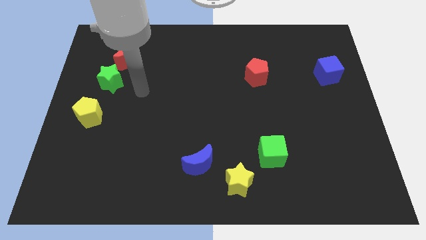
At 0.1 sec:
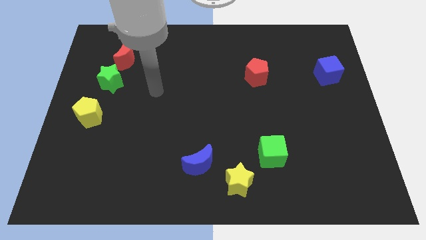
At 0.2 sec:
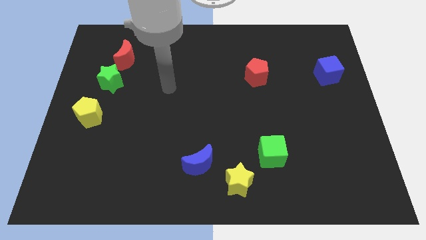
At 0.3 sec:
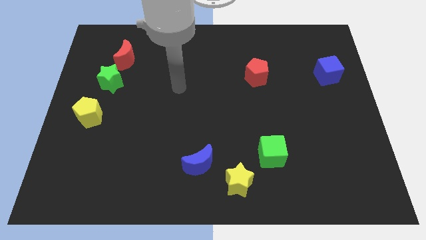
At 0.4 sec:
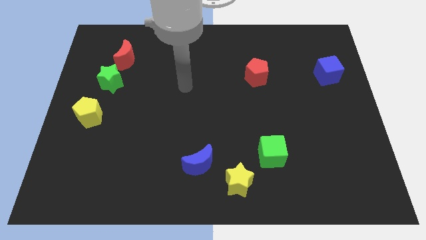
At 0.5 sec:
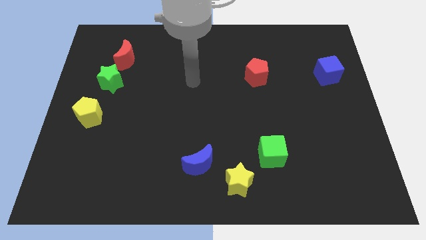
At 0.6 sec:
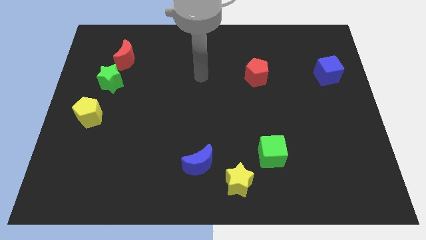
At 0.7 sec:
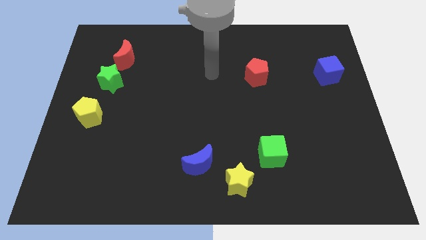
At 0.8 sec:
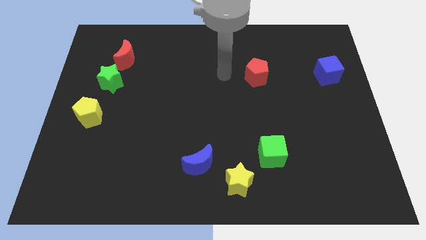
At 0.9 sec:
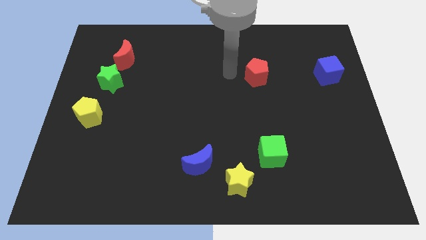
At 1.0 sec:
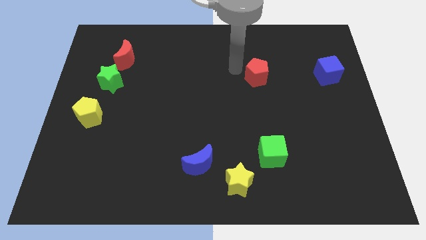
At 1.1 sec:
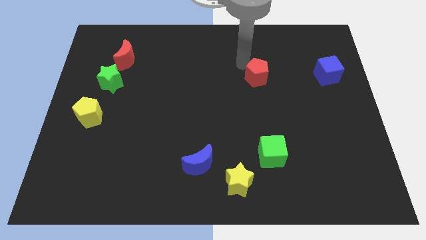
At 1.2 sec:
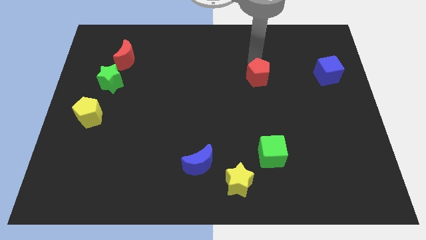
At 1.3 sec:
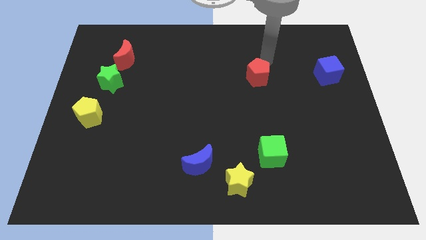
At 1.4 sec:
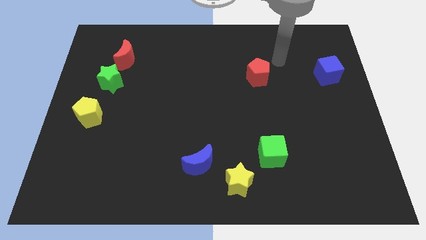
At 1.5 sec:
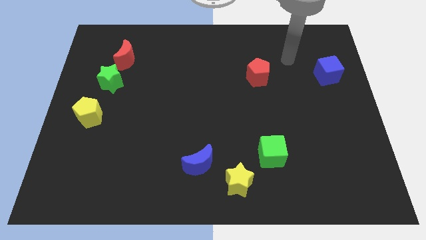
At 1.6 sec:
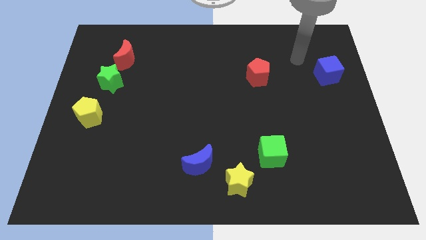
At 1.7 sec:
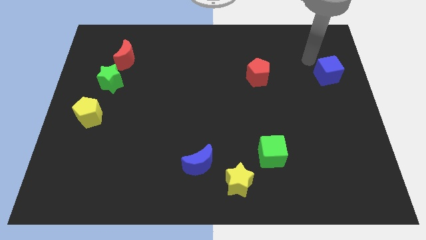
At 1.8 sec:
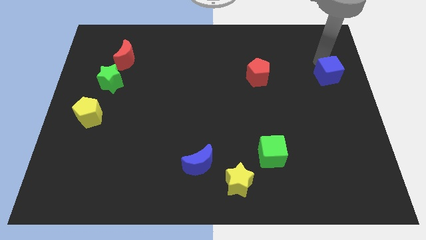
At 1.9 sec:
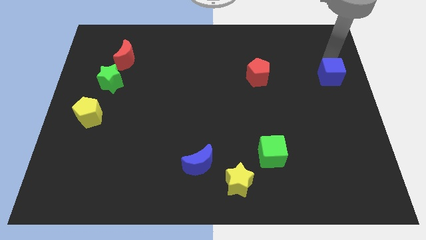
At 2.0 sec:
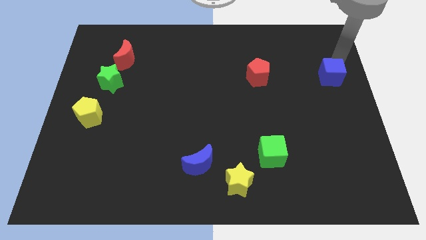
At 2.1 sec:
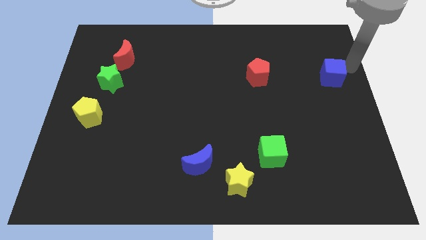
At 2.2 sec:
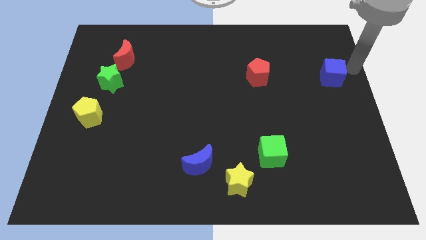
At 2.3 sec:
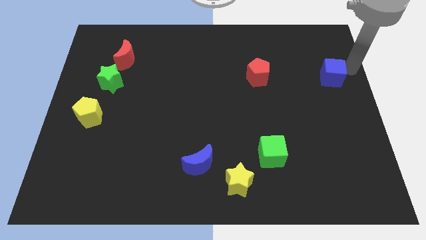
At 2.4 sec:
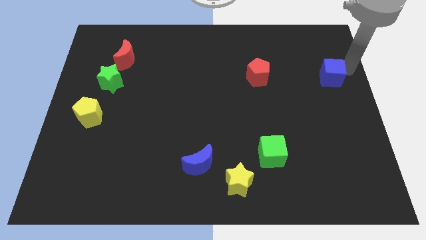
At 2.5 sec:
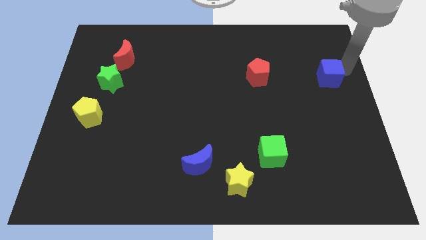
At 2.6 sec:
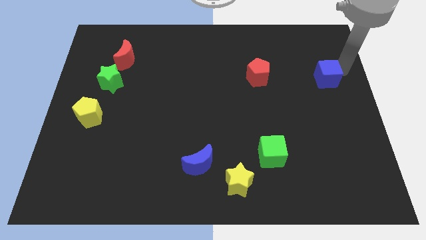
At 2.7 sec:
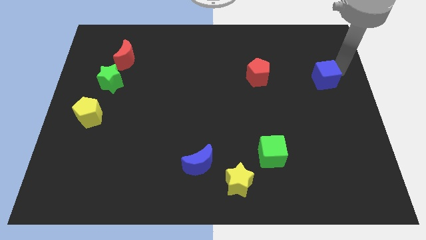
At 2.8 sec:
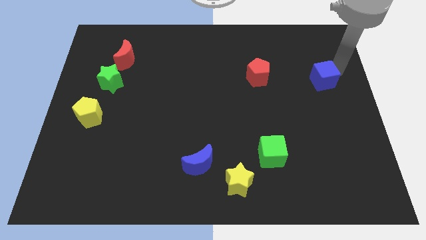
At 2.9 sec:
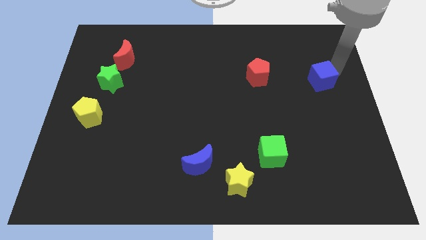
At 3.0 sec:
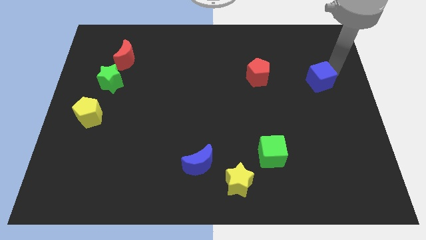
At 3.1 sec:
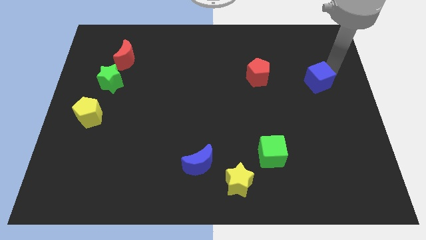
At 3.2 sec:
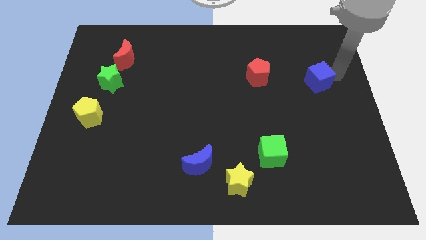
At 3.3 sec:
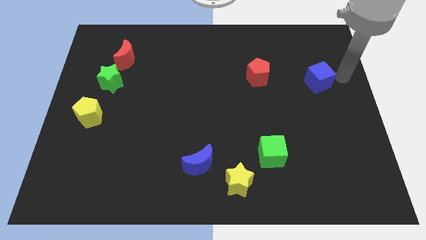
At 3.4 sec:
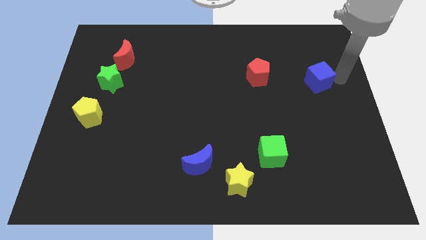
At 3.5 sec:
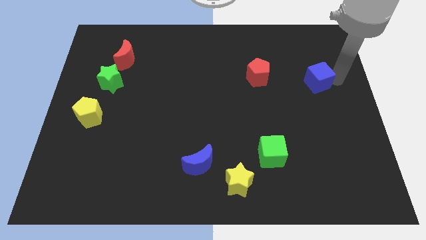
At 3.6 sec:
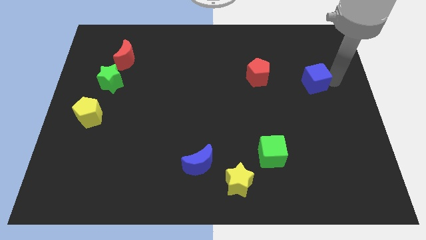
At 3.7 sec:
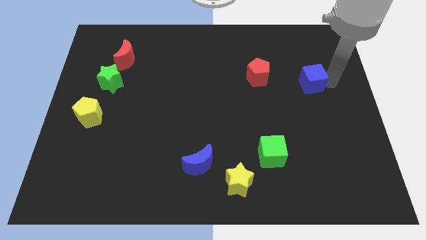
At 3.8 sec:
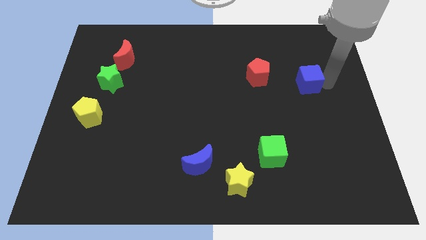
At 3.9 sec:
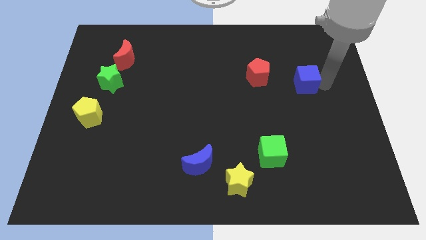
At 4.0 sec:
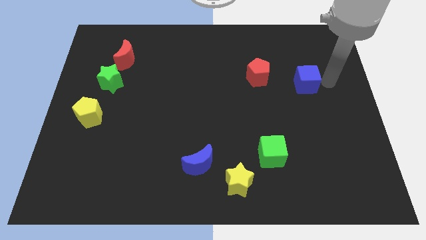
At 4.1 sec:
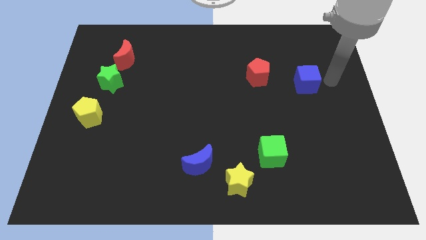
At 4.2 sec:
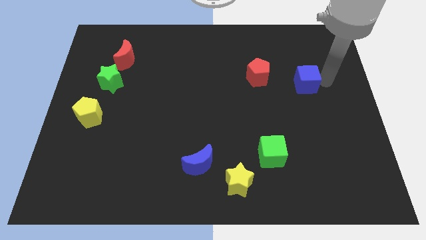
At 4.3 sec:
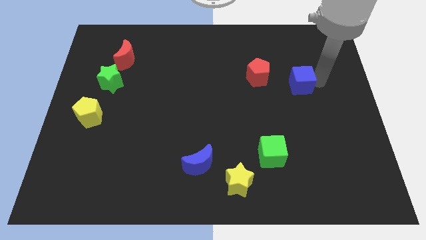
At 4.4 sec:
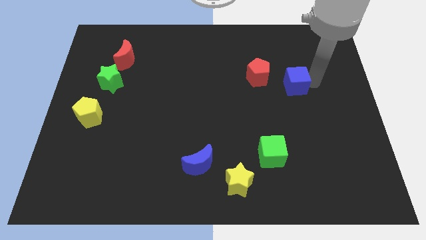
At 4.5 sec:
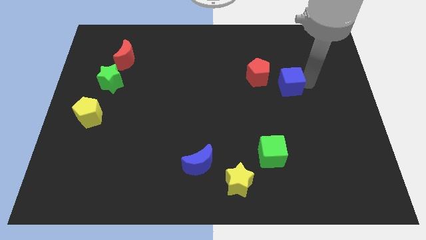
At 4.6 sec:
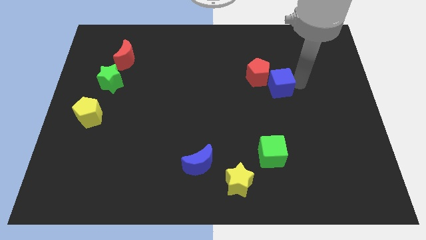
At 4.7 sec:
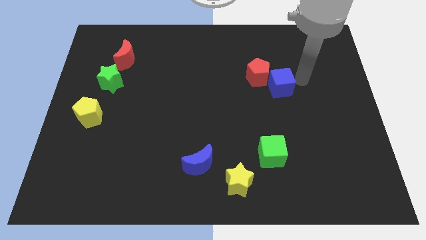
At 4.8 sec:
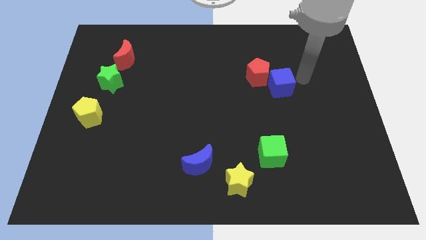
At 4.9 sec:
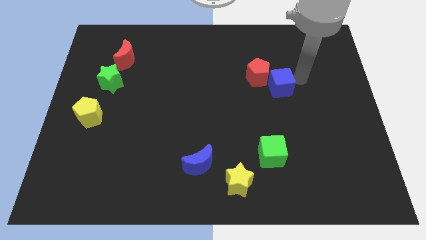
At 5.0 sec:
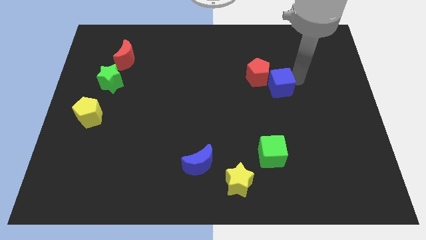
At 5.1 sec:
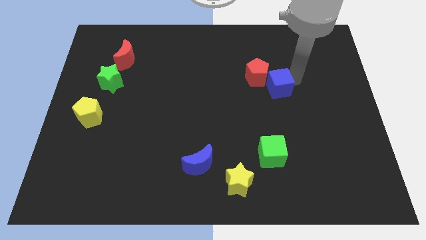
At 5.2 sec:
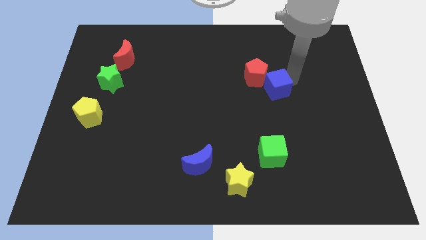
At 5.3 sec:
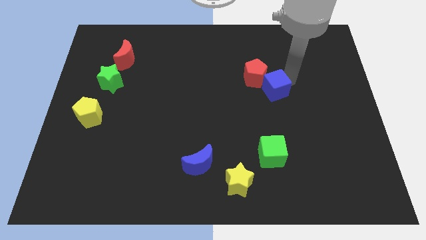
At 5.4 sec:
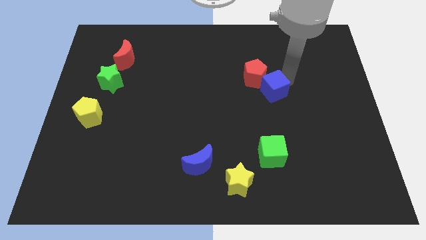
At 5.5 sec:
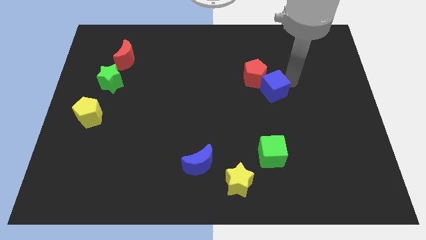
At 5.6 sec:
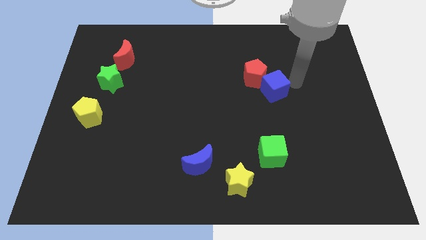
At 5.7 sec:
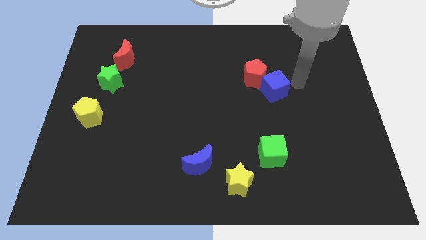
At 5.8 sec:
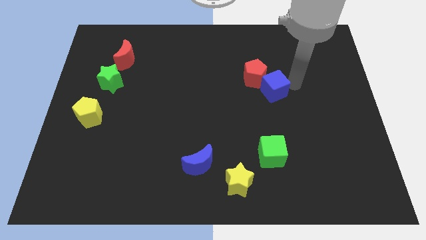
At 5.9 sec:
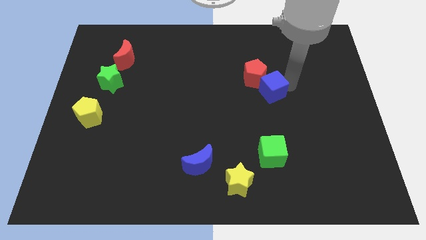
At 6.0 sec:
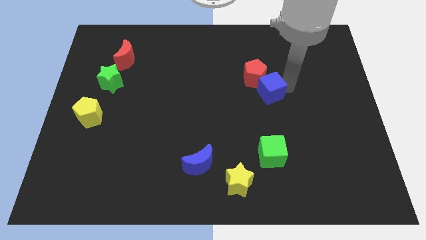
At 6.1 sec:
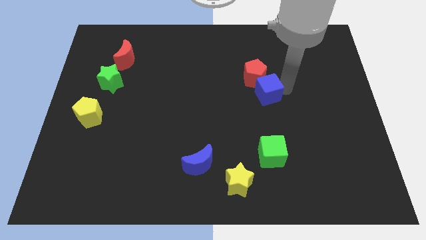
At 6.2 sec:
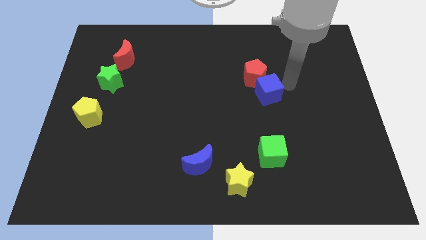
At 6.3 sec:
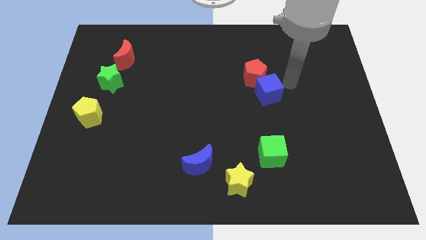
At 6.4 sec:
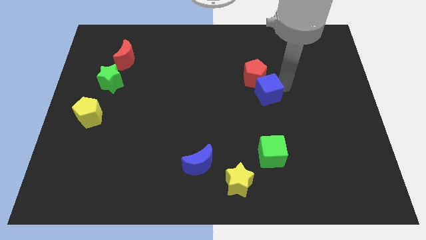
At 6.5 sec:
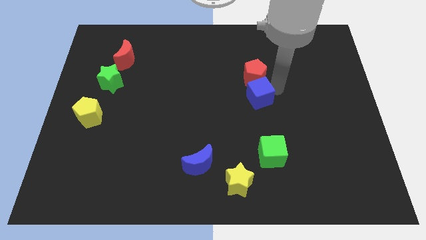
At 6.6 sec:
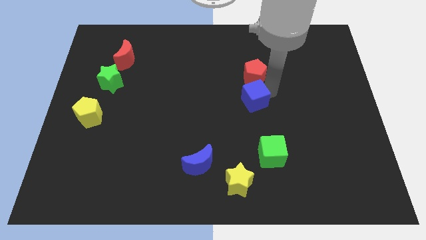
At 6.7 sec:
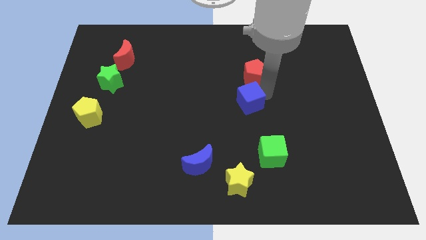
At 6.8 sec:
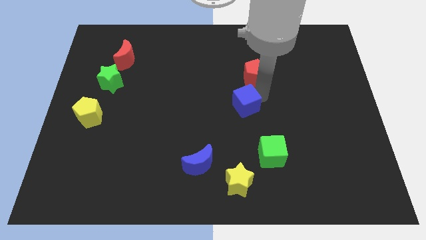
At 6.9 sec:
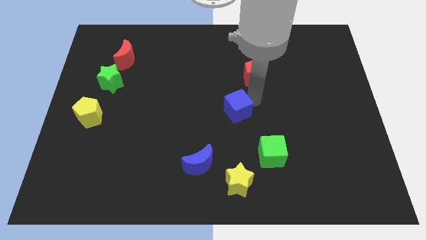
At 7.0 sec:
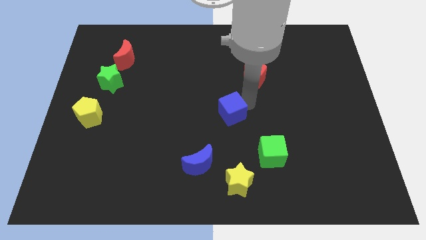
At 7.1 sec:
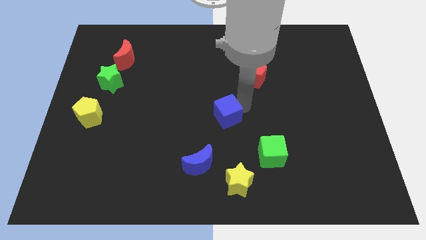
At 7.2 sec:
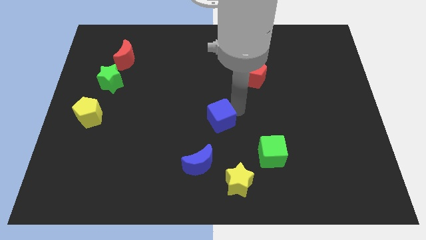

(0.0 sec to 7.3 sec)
push the blue cube to the top side of the blue moon
